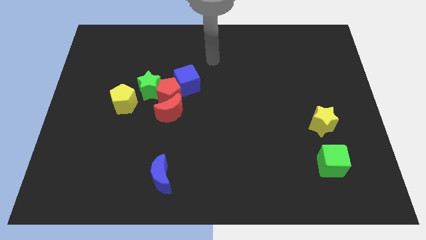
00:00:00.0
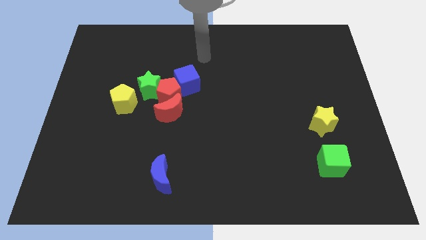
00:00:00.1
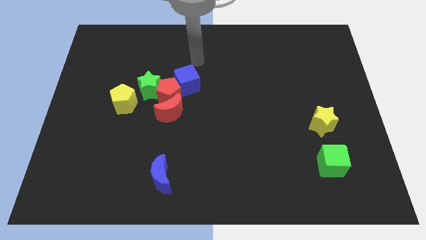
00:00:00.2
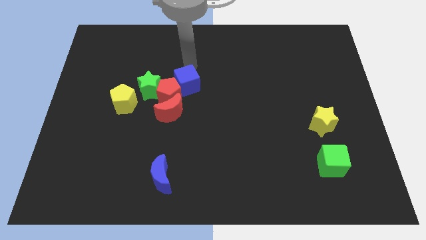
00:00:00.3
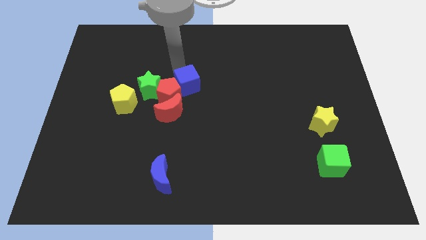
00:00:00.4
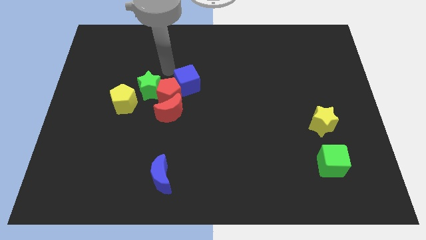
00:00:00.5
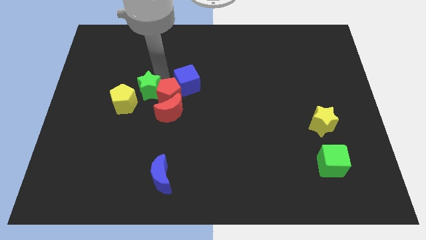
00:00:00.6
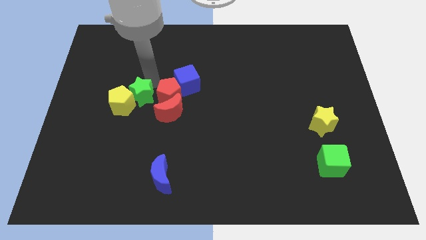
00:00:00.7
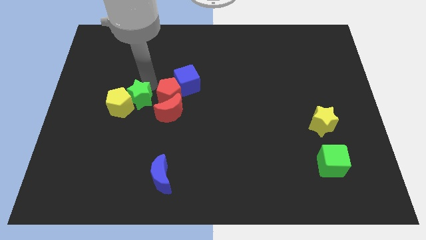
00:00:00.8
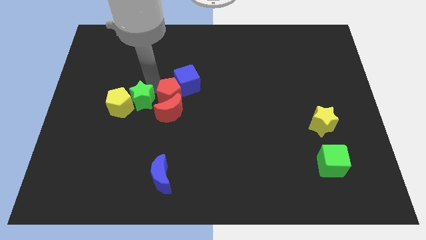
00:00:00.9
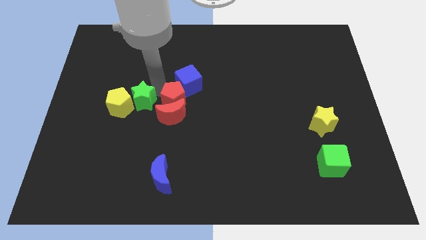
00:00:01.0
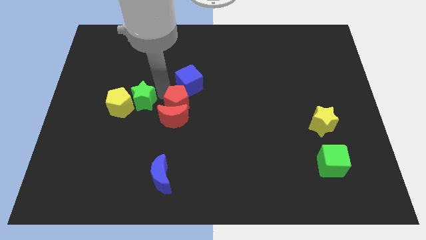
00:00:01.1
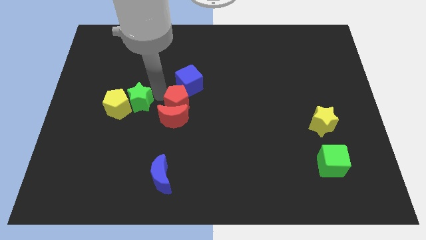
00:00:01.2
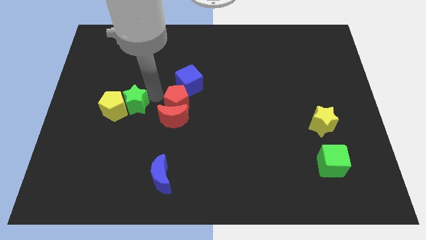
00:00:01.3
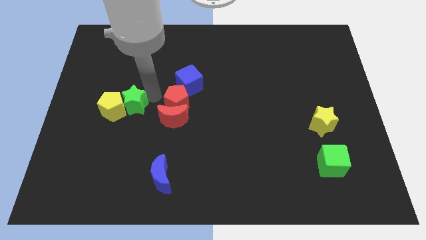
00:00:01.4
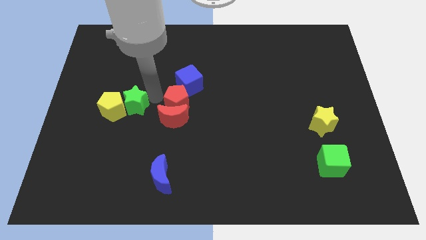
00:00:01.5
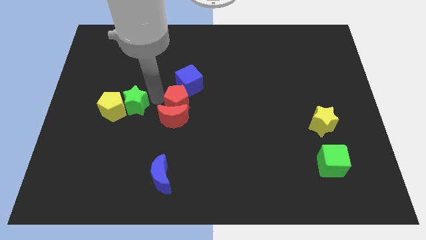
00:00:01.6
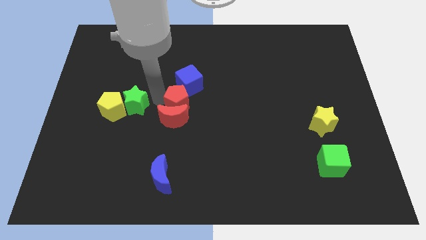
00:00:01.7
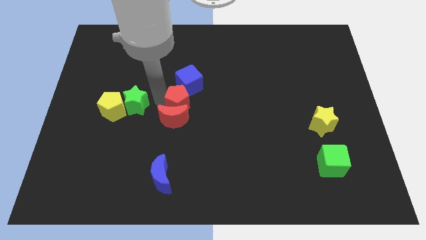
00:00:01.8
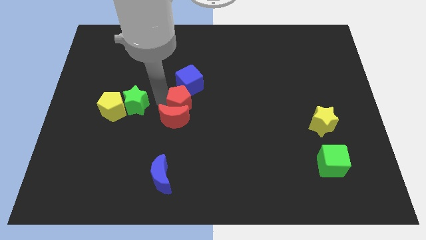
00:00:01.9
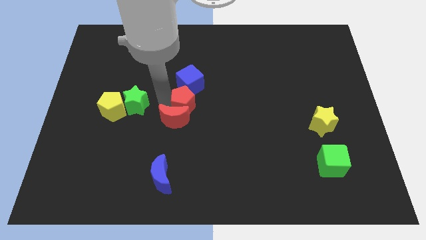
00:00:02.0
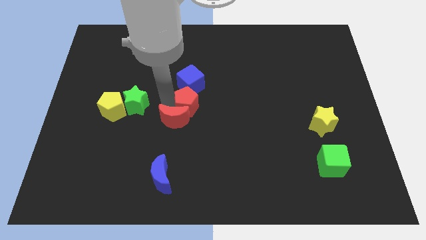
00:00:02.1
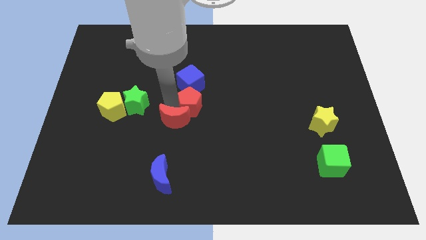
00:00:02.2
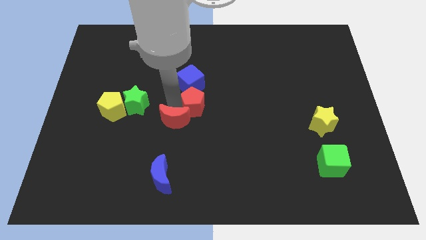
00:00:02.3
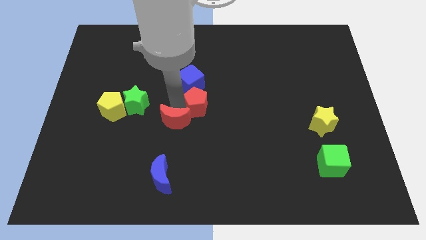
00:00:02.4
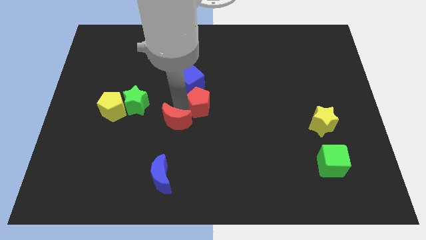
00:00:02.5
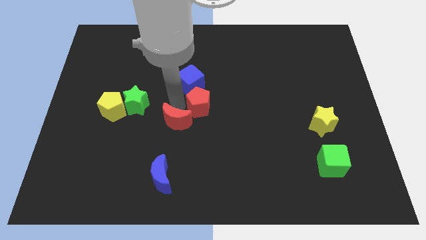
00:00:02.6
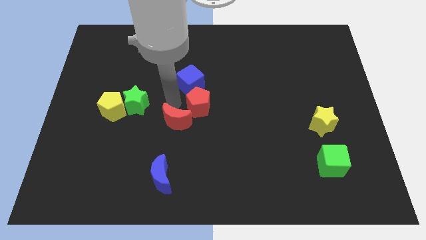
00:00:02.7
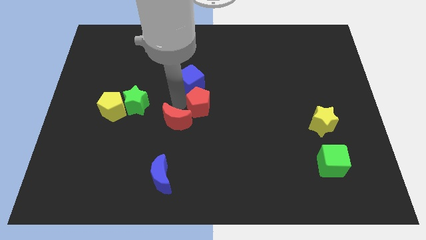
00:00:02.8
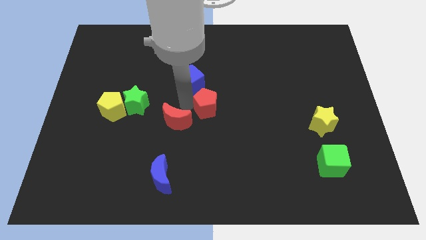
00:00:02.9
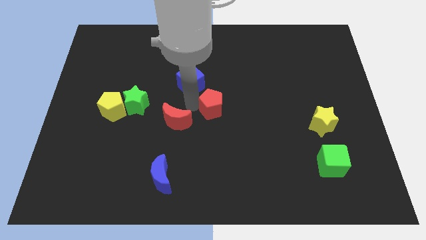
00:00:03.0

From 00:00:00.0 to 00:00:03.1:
separate the red pentagon from the red moon, blue cube, and green star

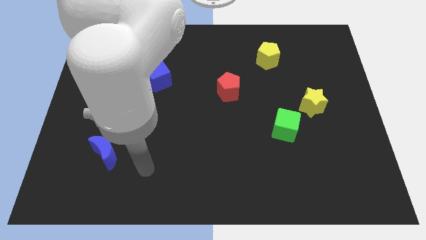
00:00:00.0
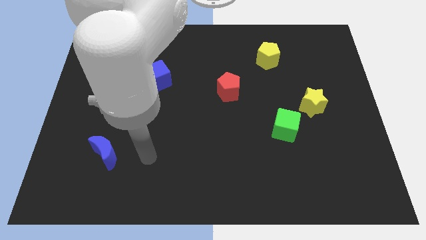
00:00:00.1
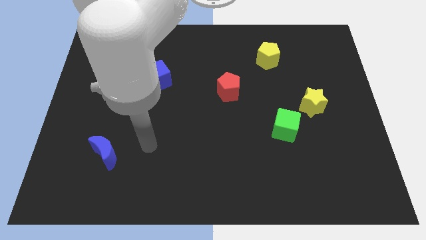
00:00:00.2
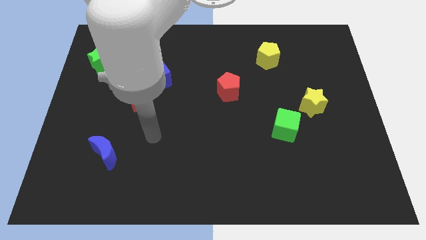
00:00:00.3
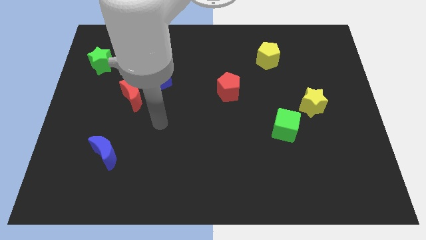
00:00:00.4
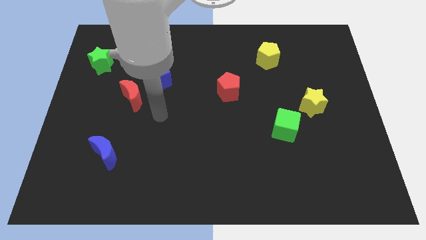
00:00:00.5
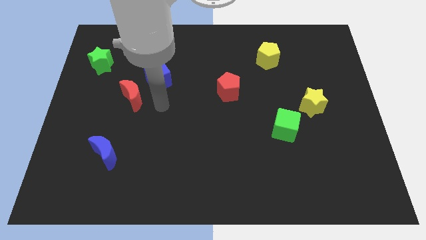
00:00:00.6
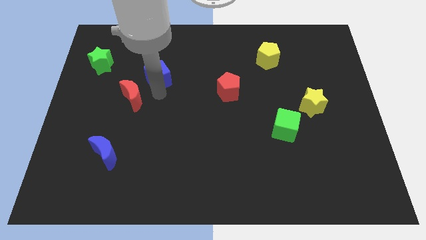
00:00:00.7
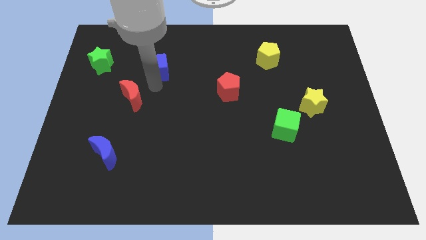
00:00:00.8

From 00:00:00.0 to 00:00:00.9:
pull the red moon apart from the blue cube

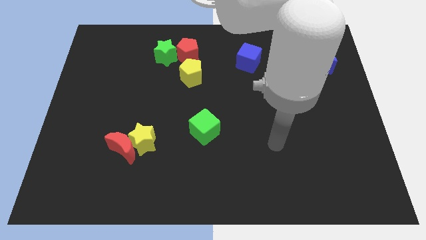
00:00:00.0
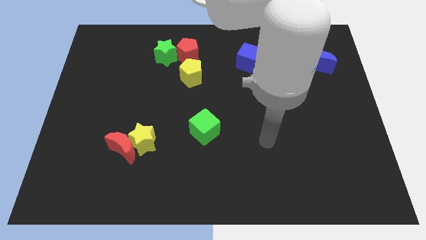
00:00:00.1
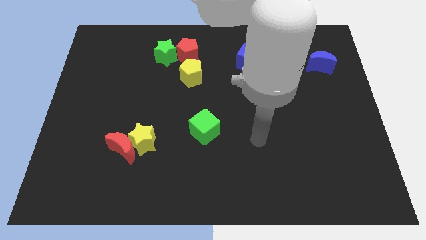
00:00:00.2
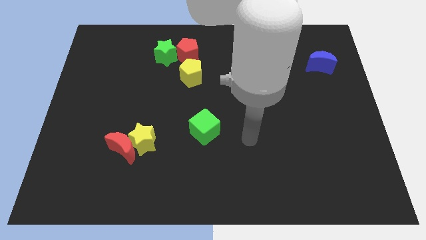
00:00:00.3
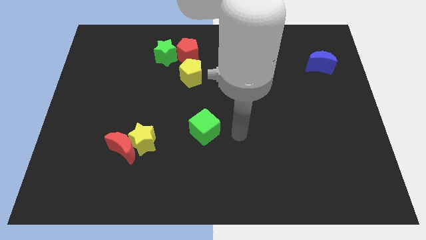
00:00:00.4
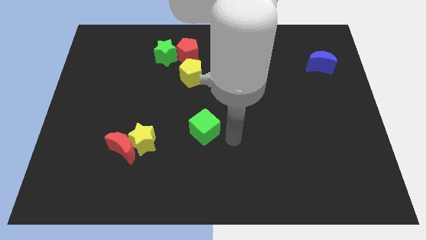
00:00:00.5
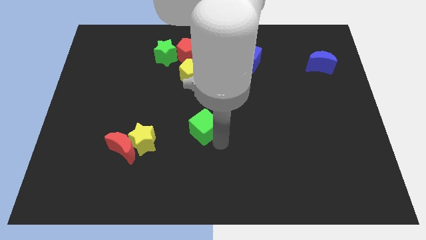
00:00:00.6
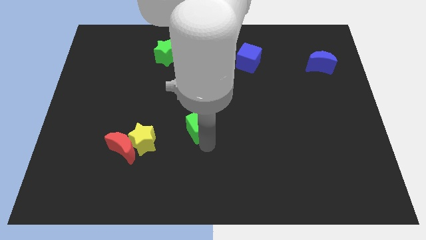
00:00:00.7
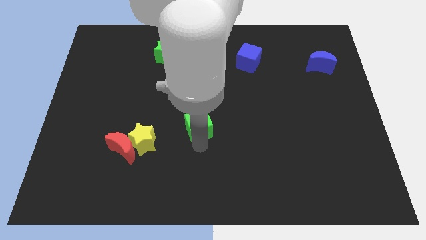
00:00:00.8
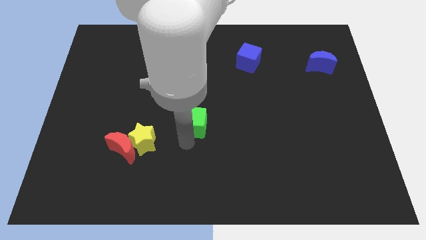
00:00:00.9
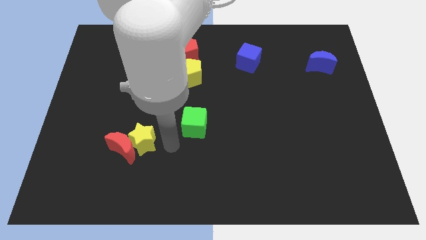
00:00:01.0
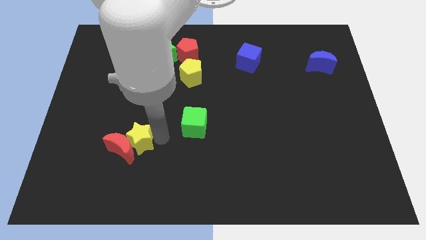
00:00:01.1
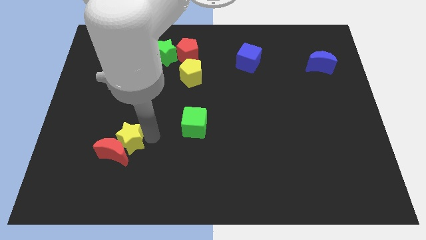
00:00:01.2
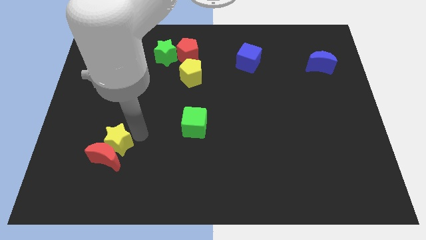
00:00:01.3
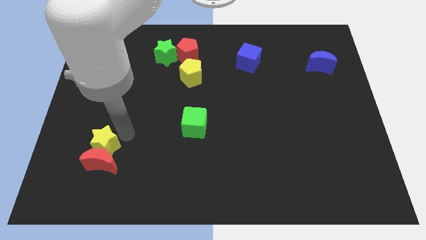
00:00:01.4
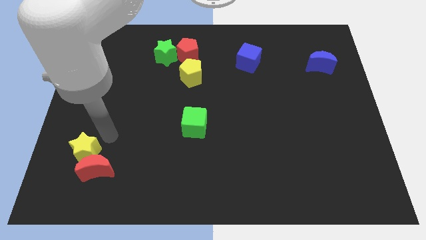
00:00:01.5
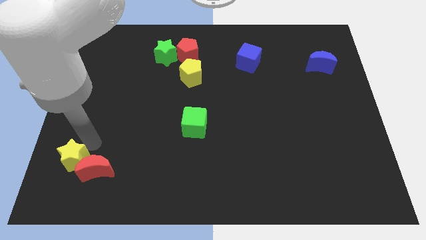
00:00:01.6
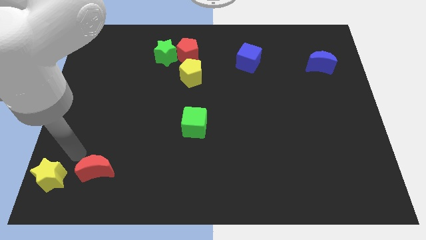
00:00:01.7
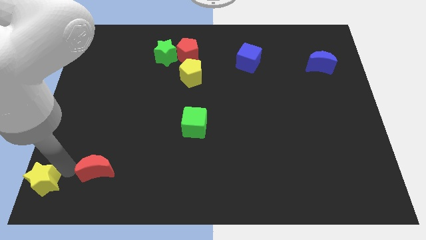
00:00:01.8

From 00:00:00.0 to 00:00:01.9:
pull the red moon apart from the yellow star

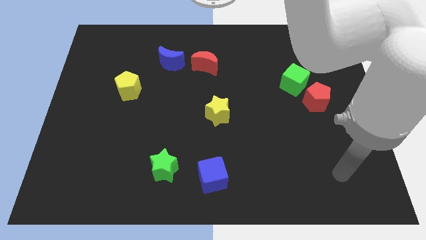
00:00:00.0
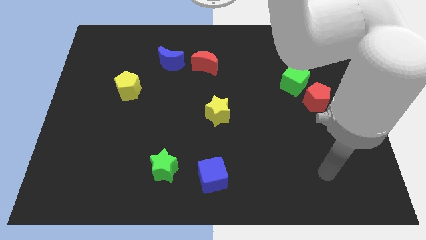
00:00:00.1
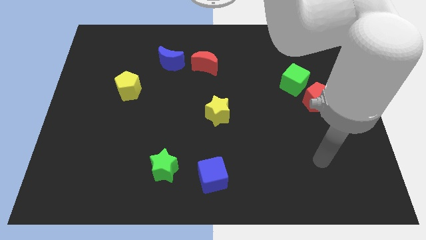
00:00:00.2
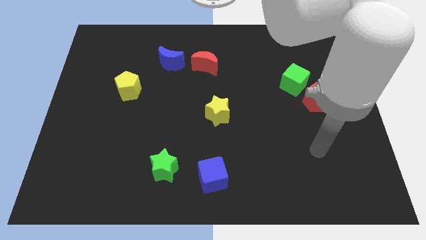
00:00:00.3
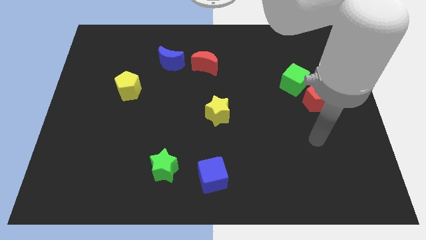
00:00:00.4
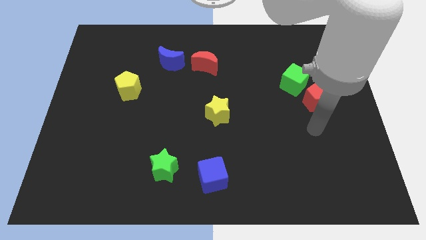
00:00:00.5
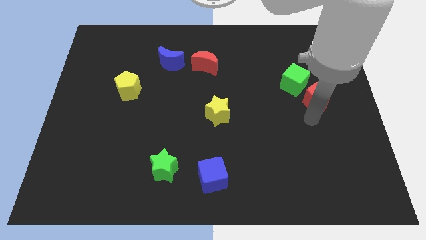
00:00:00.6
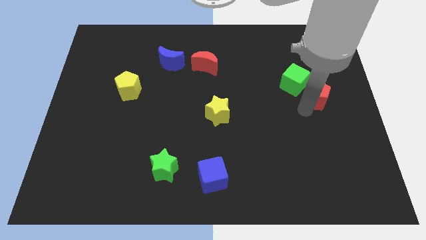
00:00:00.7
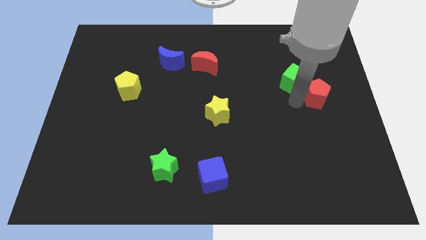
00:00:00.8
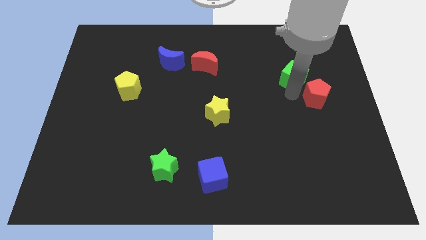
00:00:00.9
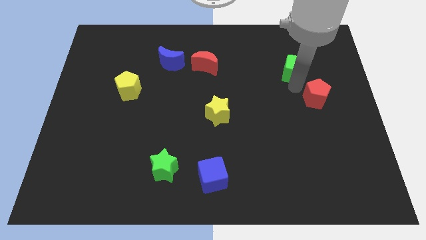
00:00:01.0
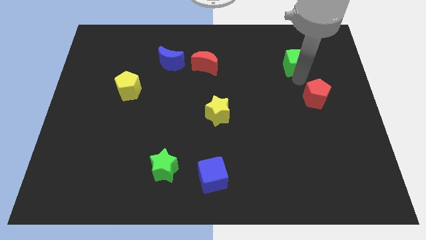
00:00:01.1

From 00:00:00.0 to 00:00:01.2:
separate the red pentagon from the green cube

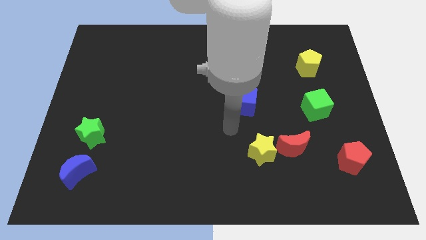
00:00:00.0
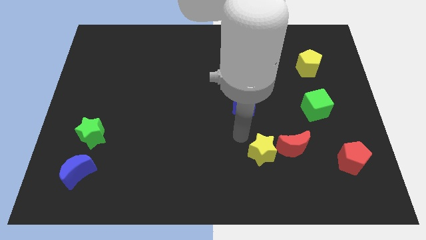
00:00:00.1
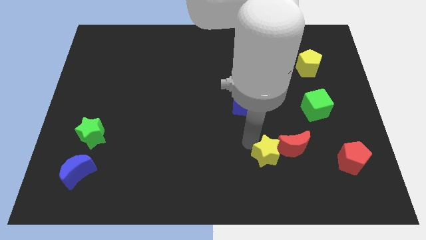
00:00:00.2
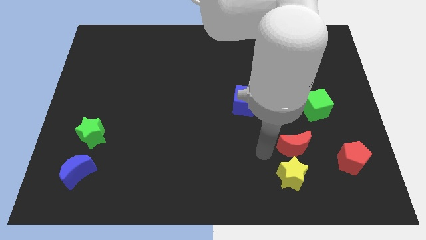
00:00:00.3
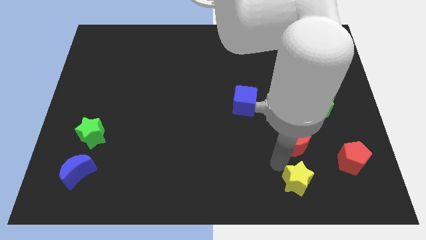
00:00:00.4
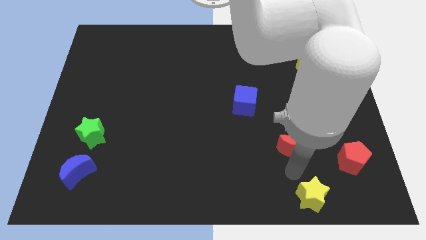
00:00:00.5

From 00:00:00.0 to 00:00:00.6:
separate the red moon from the yellow star

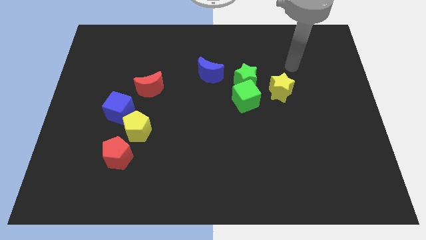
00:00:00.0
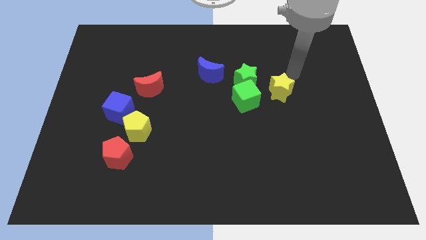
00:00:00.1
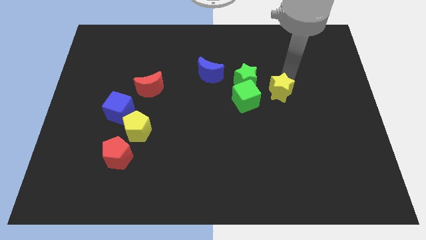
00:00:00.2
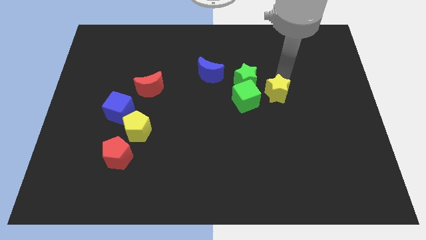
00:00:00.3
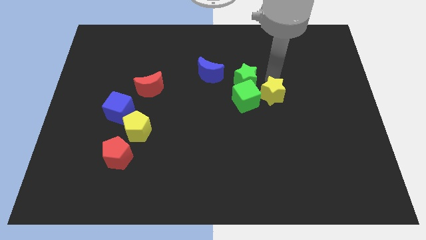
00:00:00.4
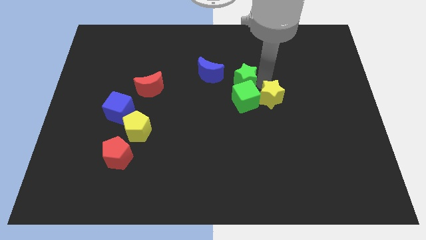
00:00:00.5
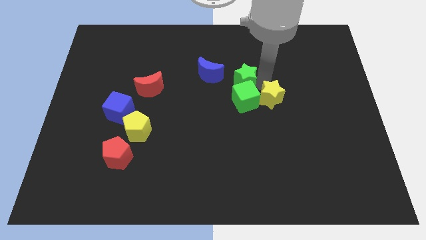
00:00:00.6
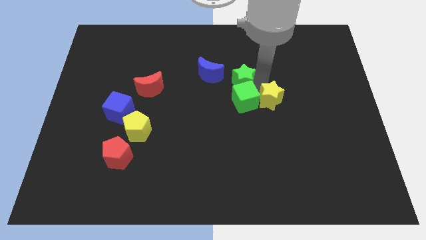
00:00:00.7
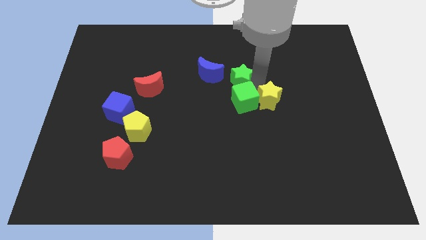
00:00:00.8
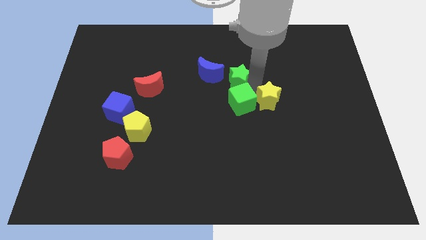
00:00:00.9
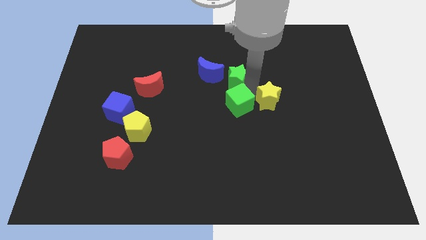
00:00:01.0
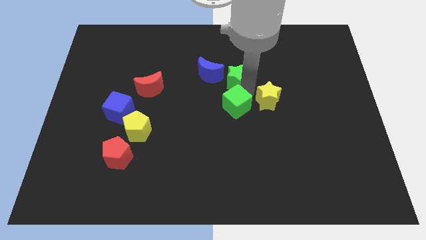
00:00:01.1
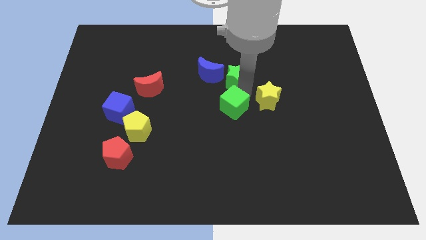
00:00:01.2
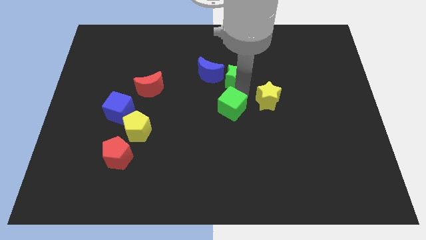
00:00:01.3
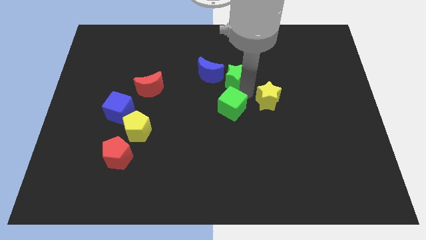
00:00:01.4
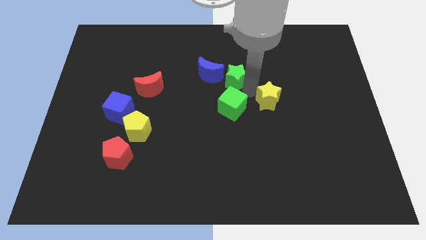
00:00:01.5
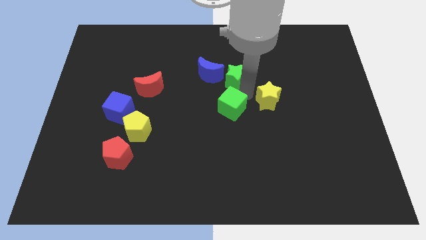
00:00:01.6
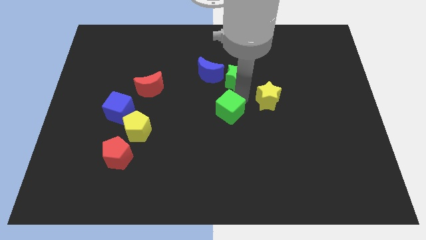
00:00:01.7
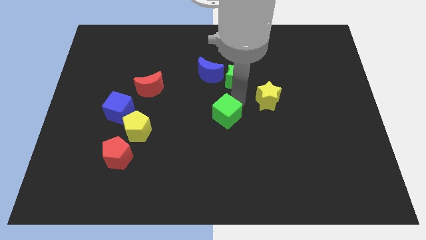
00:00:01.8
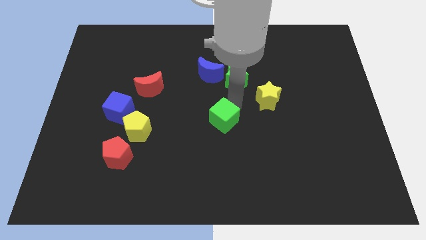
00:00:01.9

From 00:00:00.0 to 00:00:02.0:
pull the green cube apart from the green star and yellow star
